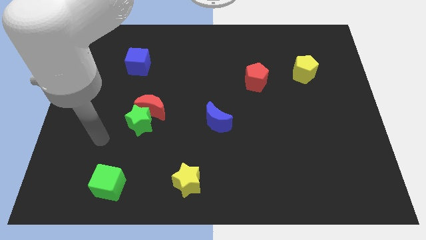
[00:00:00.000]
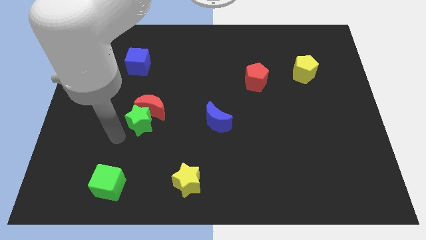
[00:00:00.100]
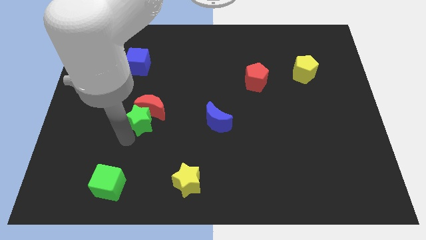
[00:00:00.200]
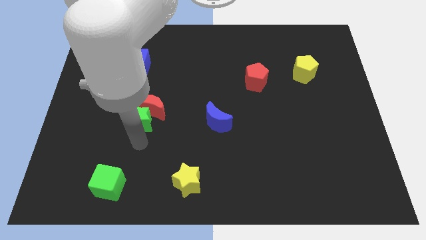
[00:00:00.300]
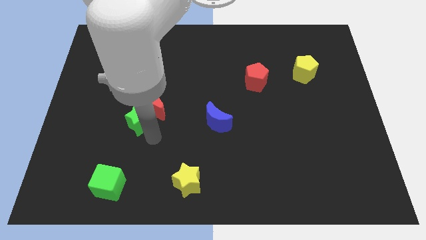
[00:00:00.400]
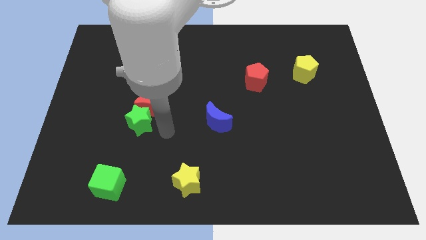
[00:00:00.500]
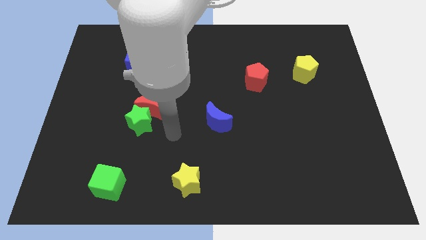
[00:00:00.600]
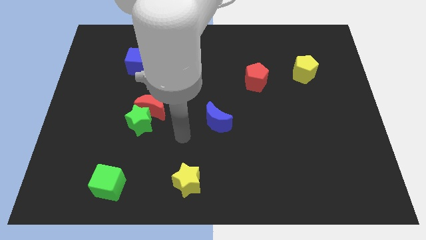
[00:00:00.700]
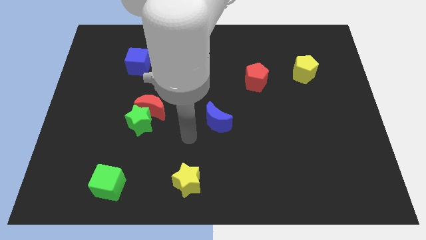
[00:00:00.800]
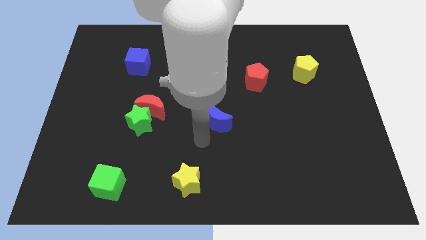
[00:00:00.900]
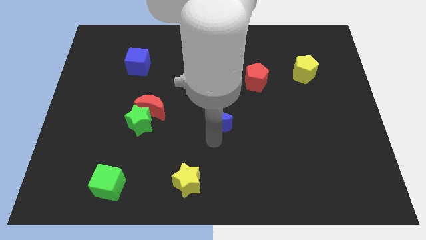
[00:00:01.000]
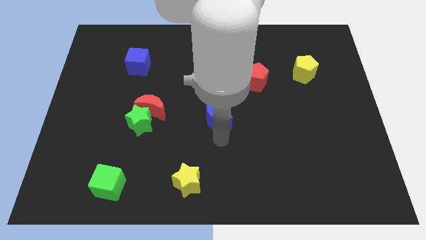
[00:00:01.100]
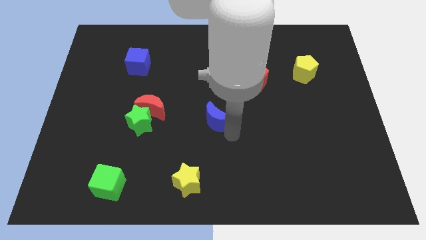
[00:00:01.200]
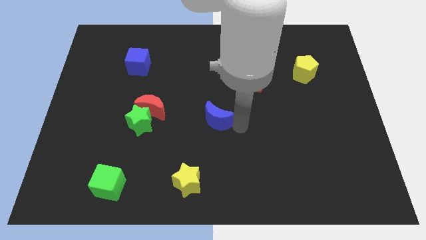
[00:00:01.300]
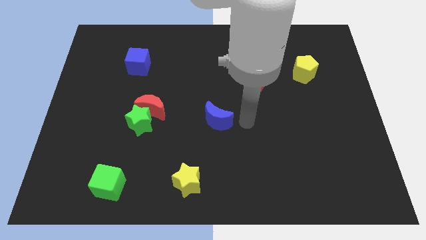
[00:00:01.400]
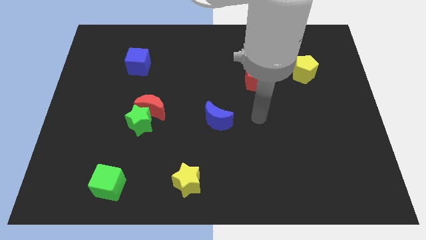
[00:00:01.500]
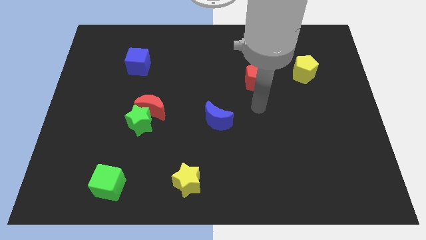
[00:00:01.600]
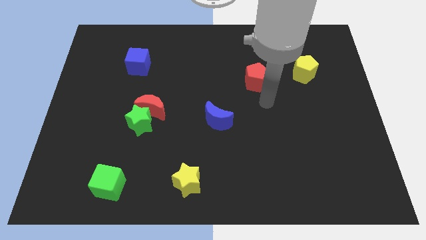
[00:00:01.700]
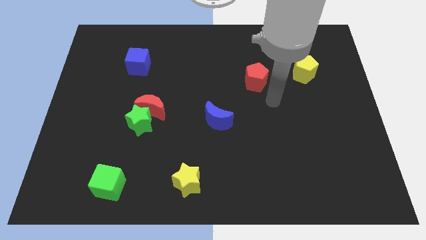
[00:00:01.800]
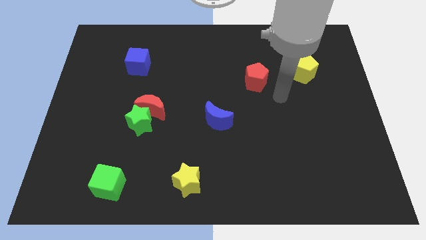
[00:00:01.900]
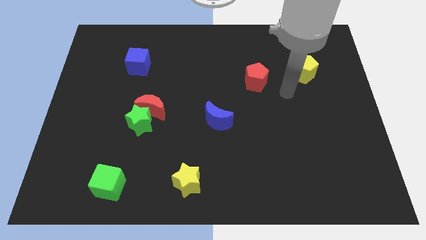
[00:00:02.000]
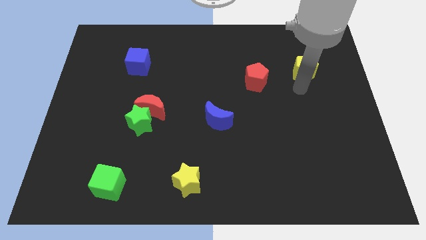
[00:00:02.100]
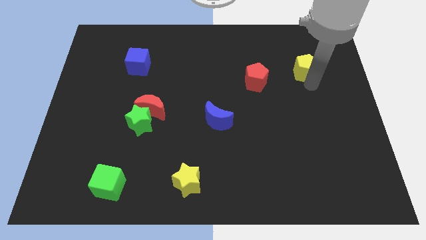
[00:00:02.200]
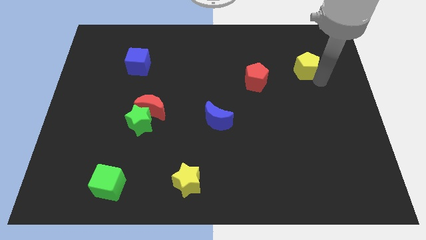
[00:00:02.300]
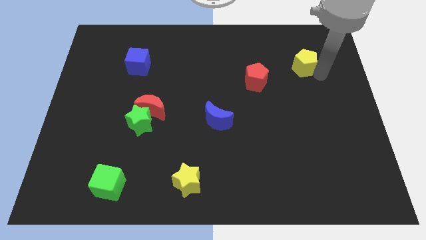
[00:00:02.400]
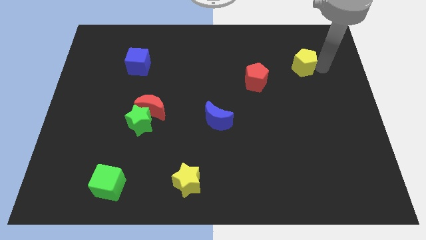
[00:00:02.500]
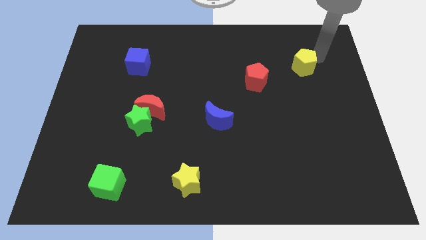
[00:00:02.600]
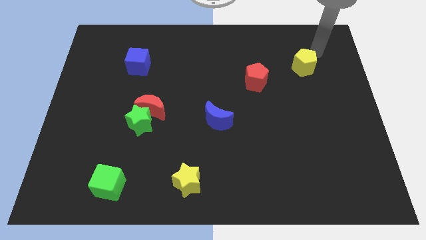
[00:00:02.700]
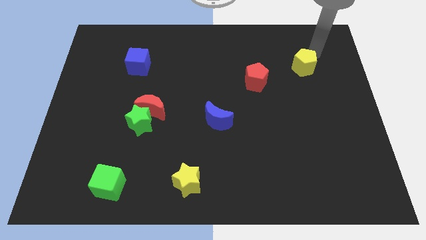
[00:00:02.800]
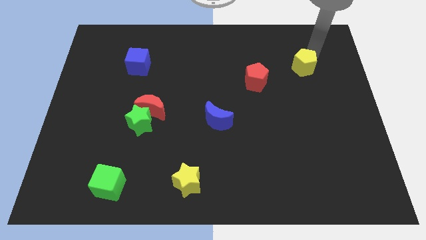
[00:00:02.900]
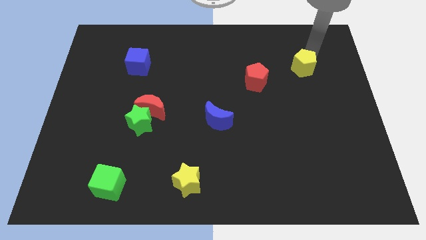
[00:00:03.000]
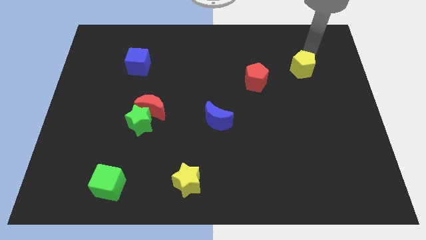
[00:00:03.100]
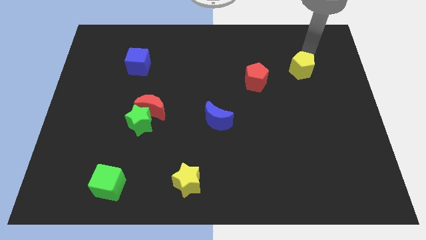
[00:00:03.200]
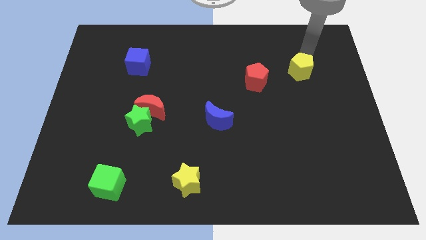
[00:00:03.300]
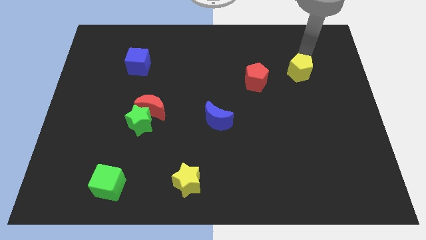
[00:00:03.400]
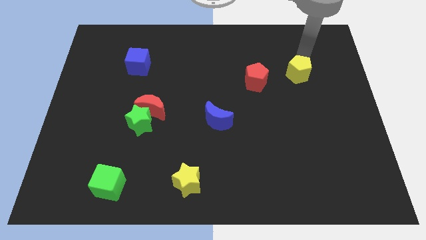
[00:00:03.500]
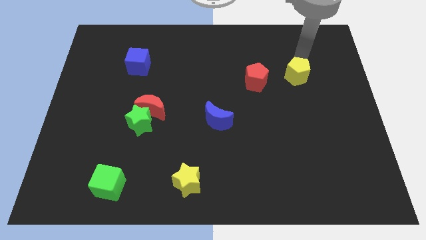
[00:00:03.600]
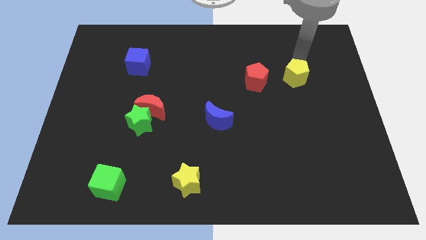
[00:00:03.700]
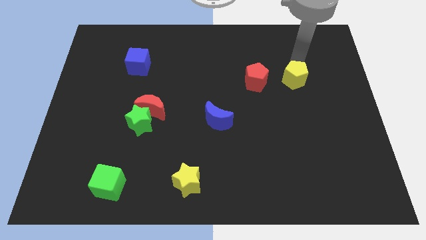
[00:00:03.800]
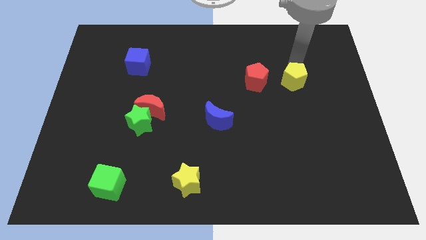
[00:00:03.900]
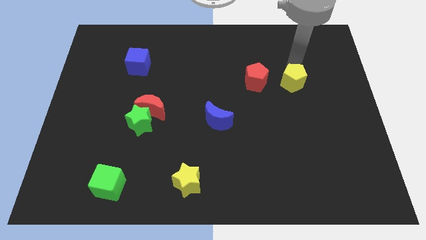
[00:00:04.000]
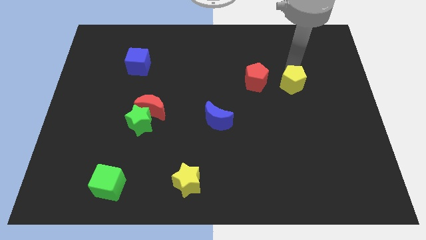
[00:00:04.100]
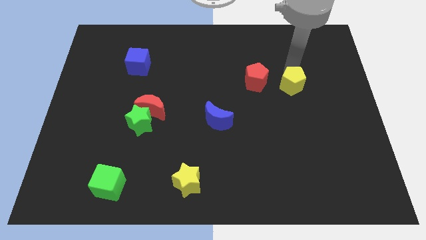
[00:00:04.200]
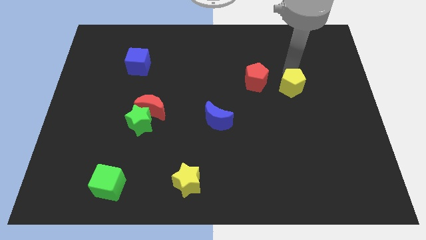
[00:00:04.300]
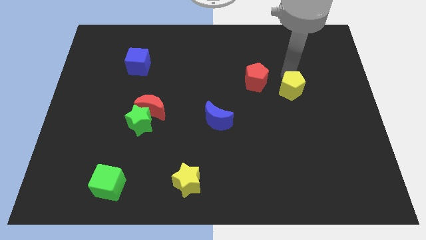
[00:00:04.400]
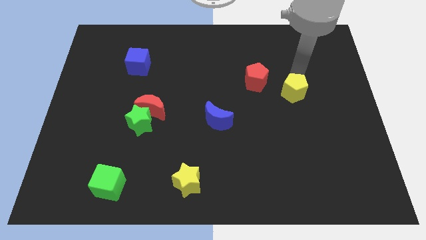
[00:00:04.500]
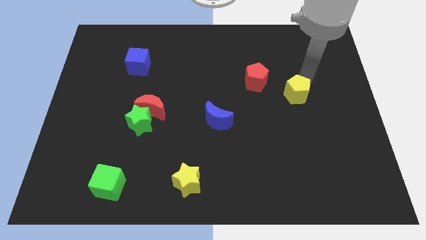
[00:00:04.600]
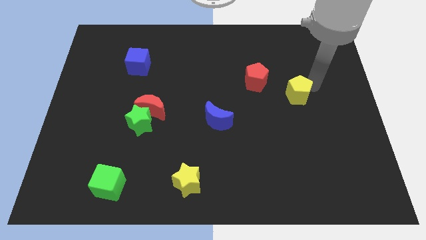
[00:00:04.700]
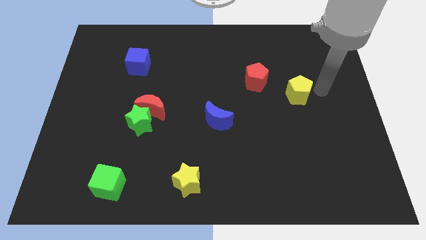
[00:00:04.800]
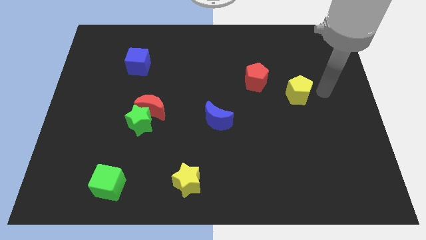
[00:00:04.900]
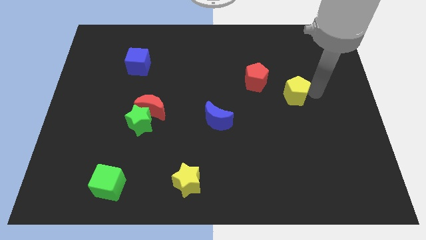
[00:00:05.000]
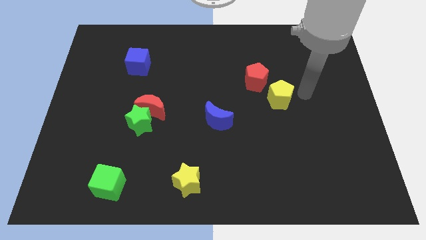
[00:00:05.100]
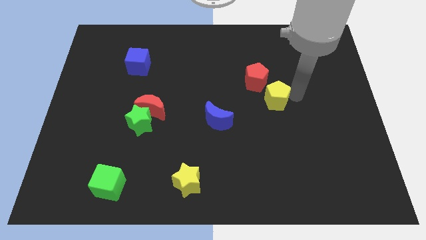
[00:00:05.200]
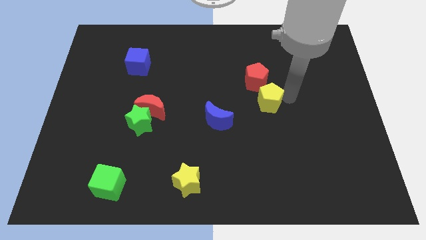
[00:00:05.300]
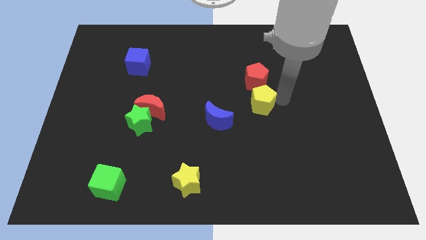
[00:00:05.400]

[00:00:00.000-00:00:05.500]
push the yellow pentagon to the center

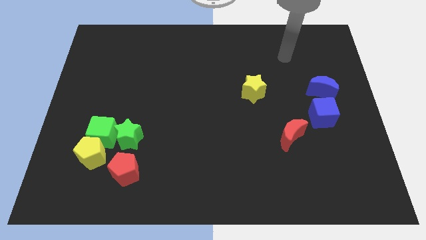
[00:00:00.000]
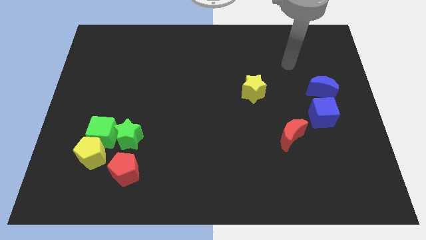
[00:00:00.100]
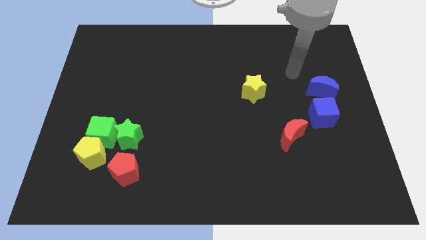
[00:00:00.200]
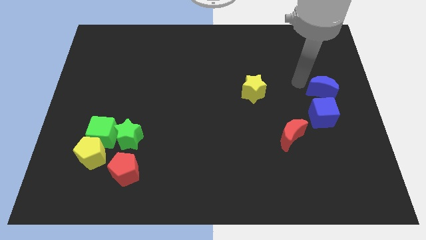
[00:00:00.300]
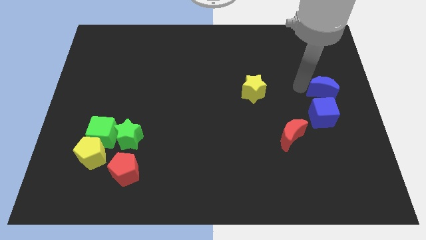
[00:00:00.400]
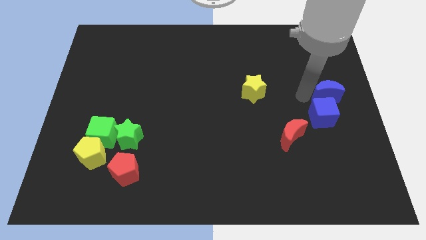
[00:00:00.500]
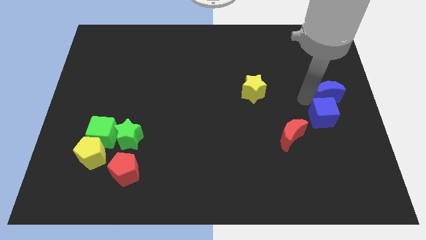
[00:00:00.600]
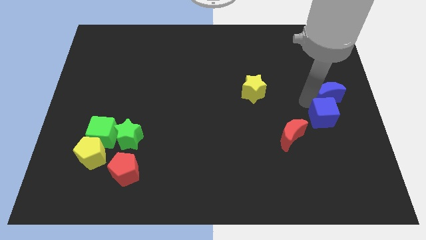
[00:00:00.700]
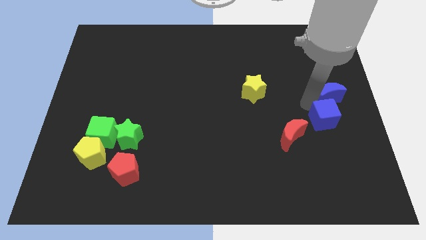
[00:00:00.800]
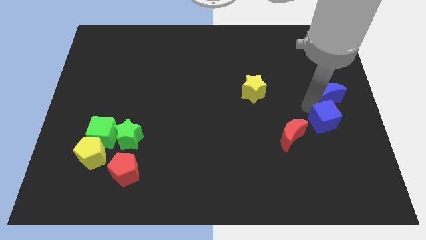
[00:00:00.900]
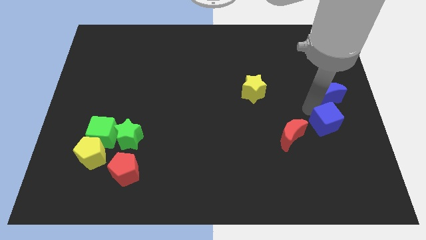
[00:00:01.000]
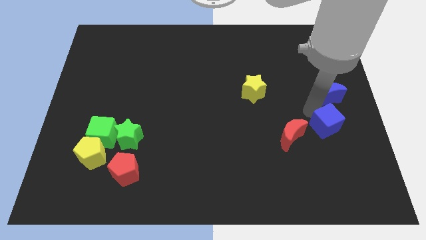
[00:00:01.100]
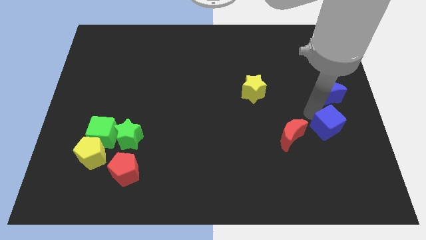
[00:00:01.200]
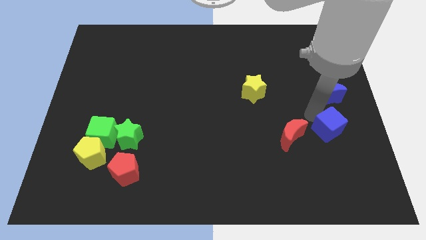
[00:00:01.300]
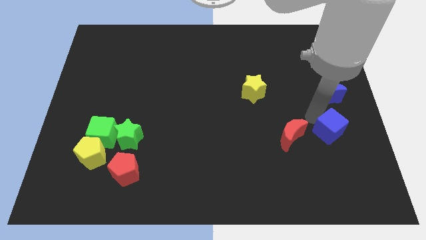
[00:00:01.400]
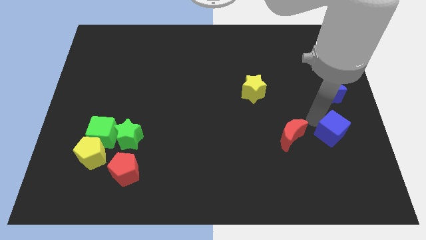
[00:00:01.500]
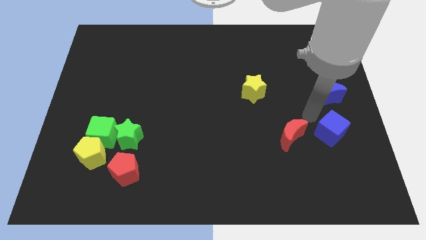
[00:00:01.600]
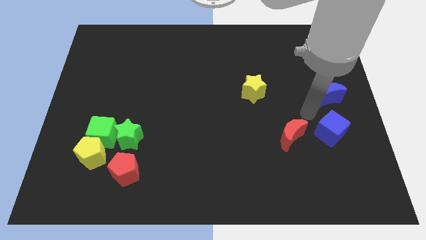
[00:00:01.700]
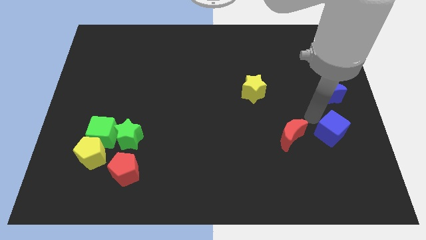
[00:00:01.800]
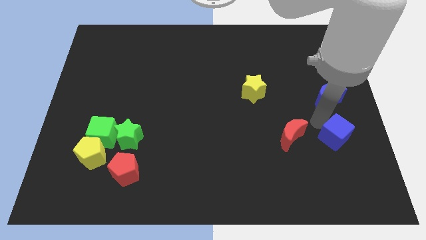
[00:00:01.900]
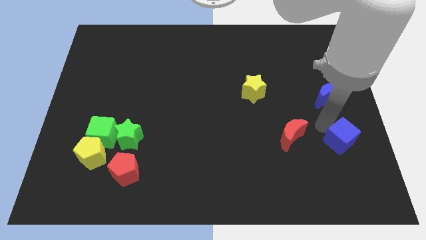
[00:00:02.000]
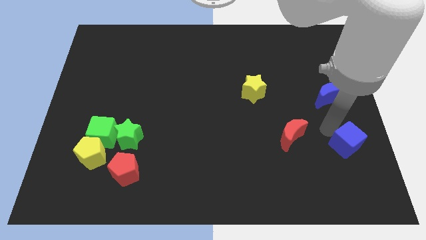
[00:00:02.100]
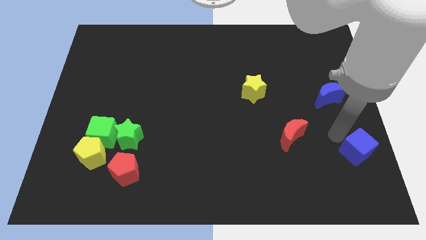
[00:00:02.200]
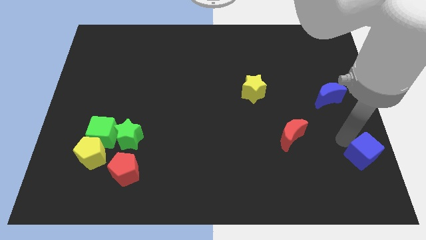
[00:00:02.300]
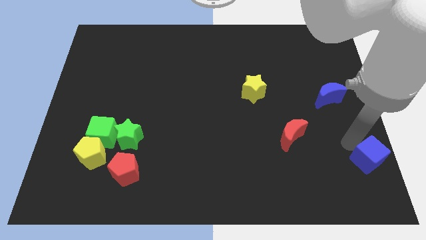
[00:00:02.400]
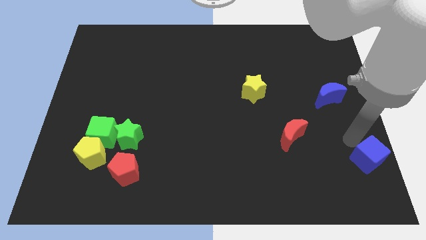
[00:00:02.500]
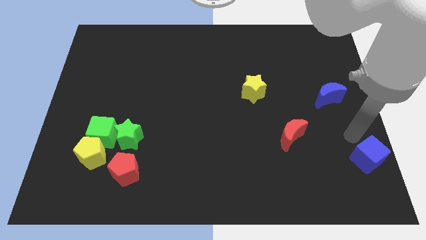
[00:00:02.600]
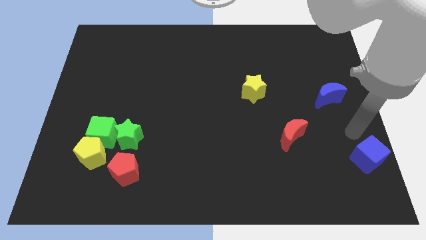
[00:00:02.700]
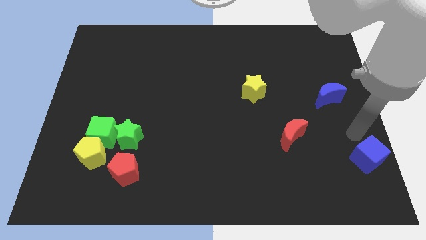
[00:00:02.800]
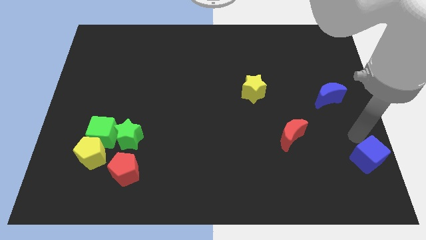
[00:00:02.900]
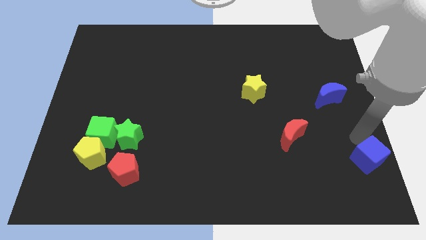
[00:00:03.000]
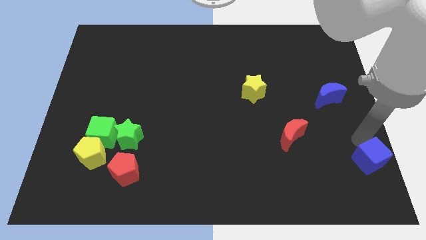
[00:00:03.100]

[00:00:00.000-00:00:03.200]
slide the blue cube to the bottom right corner
